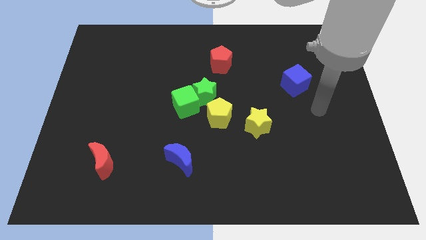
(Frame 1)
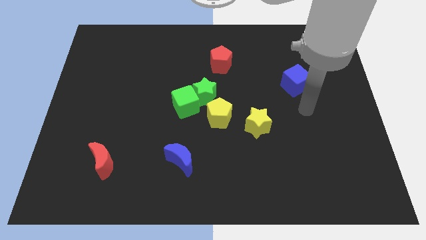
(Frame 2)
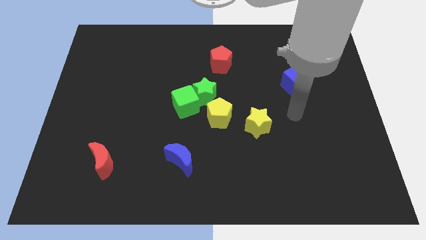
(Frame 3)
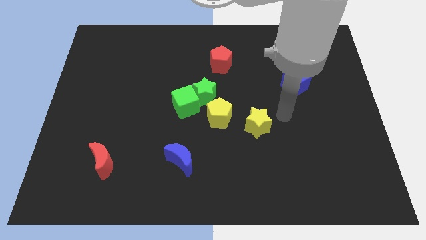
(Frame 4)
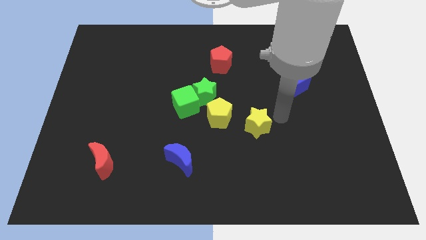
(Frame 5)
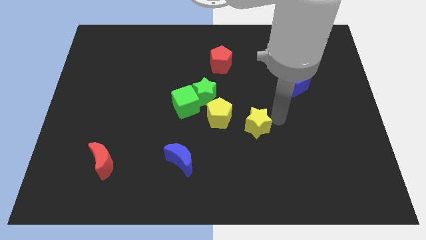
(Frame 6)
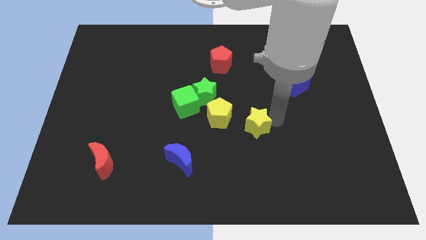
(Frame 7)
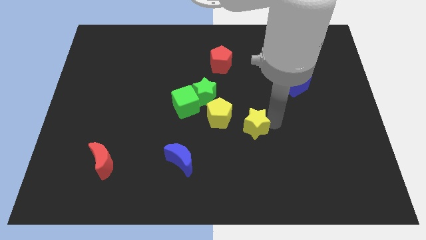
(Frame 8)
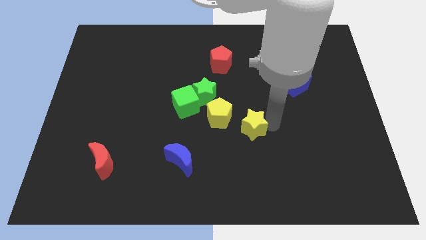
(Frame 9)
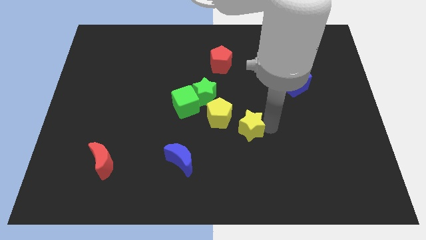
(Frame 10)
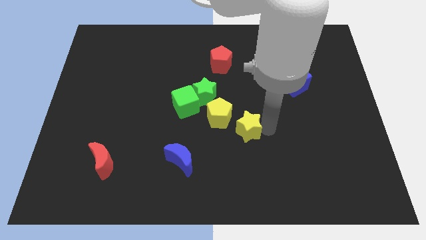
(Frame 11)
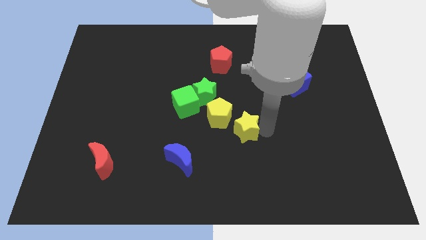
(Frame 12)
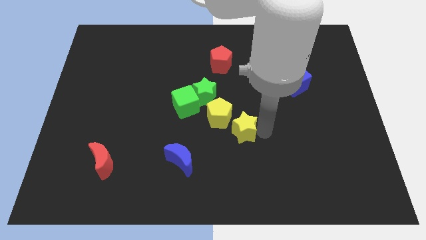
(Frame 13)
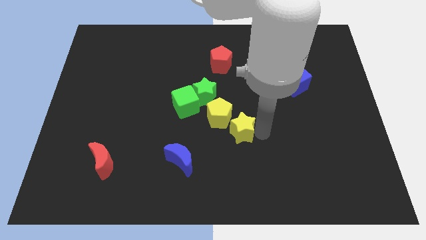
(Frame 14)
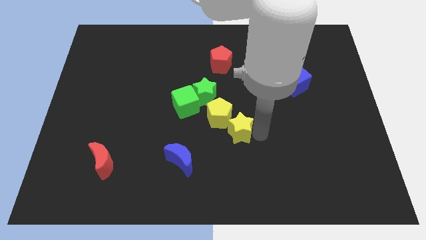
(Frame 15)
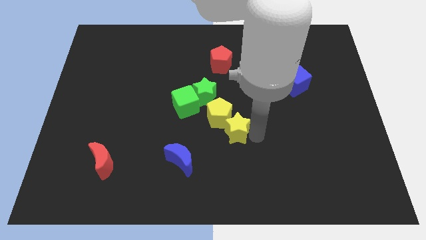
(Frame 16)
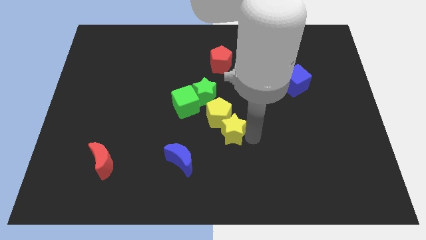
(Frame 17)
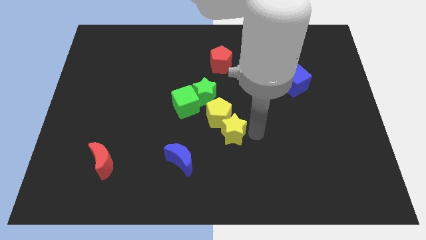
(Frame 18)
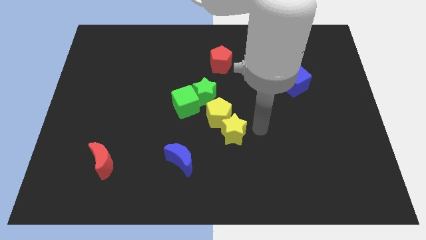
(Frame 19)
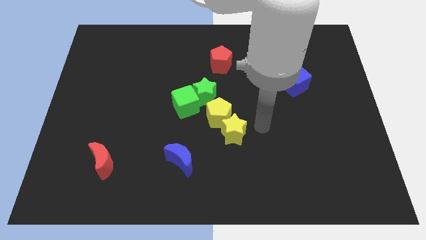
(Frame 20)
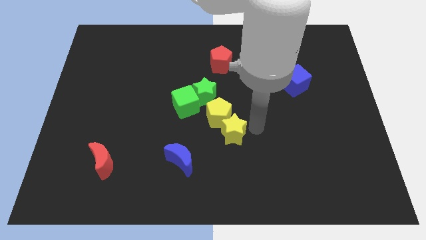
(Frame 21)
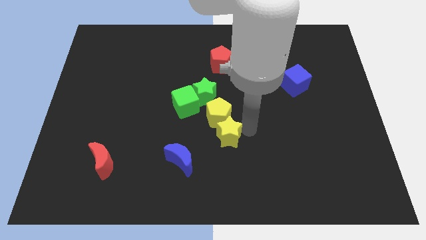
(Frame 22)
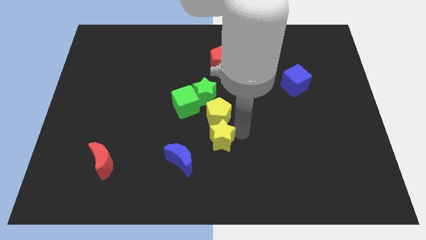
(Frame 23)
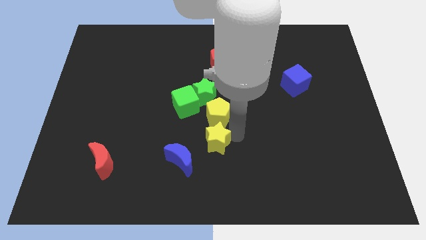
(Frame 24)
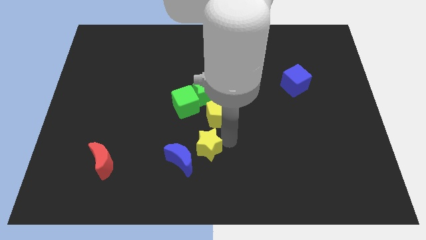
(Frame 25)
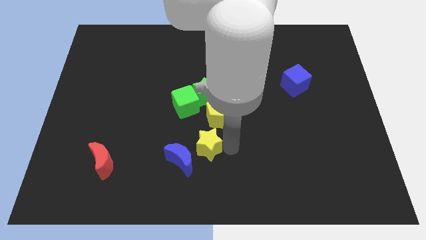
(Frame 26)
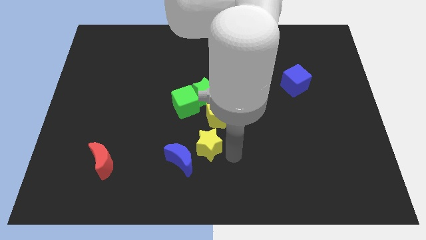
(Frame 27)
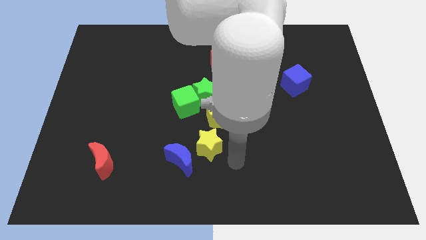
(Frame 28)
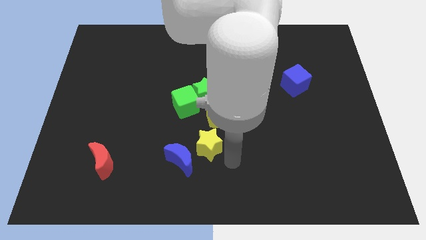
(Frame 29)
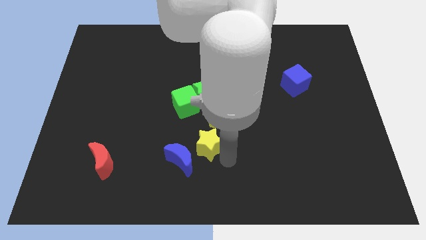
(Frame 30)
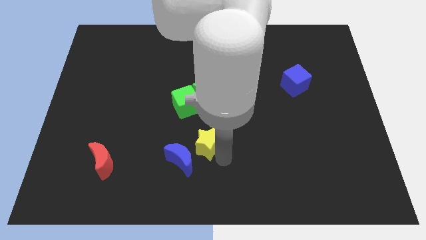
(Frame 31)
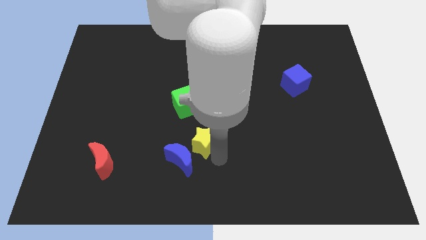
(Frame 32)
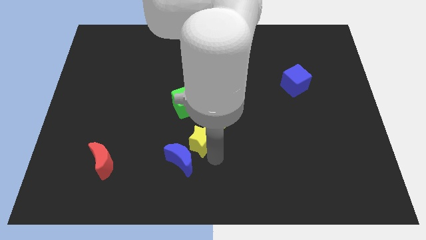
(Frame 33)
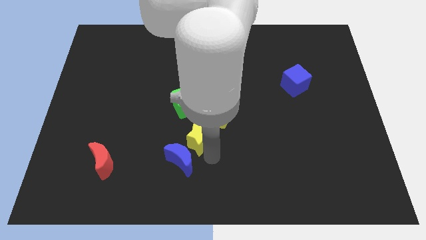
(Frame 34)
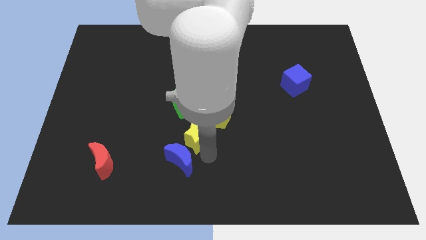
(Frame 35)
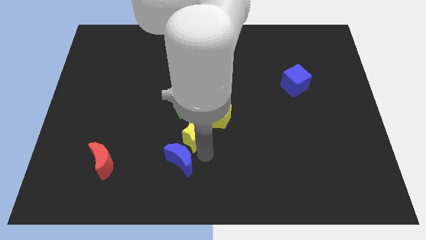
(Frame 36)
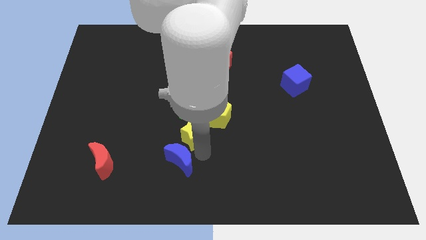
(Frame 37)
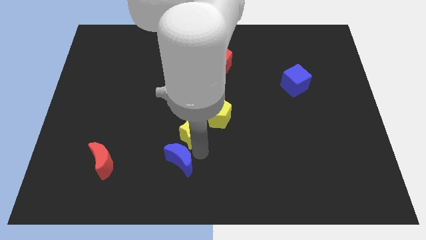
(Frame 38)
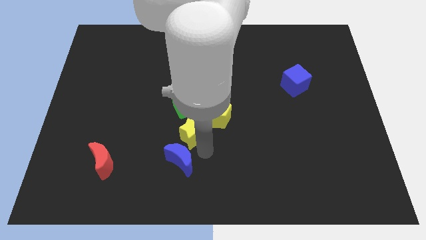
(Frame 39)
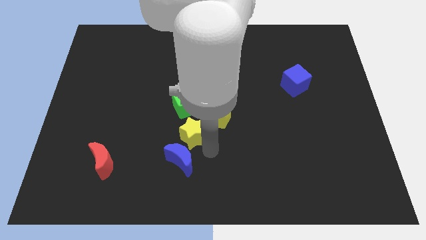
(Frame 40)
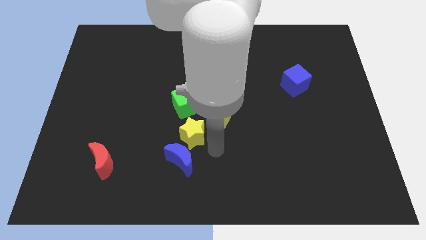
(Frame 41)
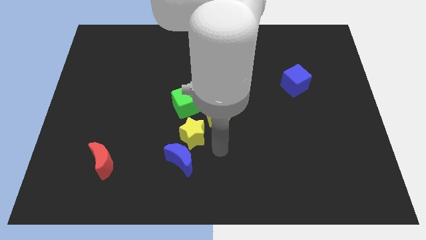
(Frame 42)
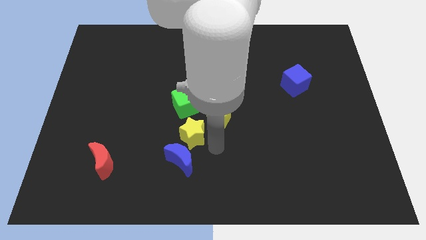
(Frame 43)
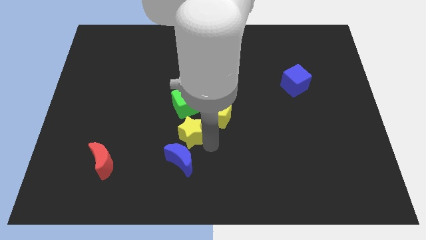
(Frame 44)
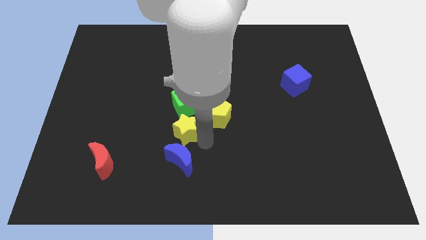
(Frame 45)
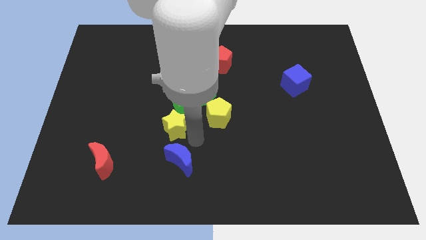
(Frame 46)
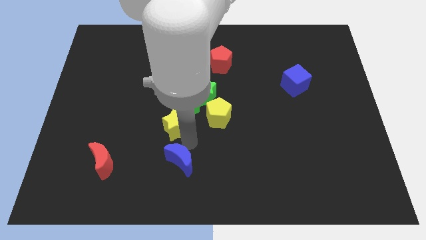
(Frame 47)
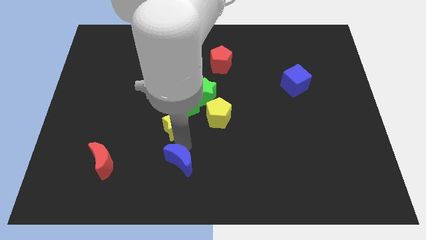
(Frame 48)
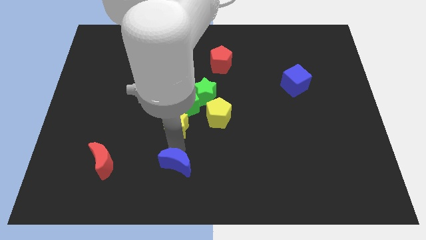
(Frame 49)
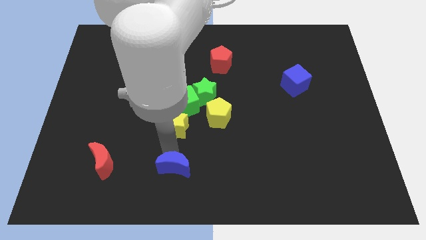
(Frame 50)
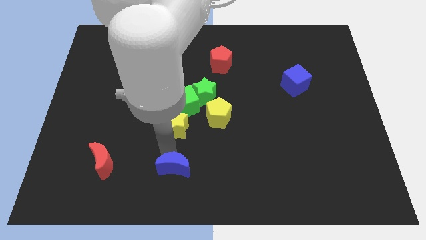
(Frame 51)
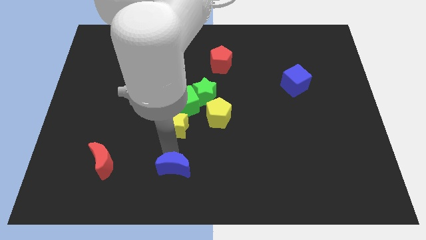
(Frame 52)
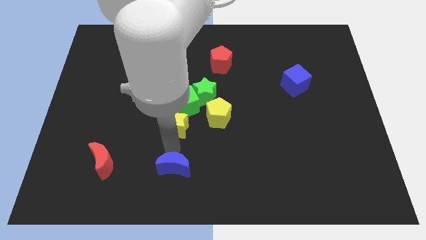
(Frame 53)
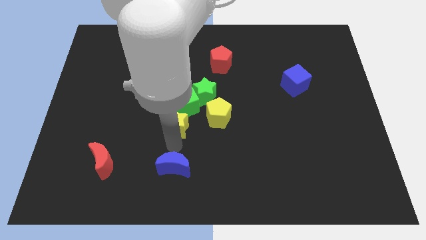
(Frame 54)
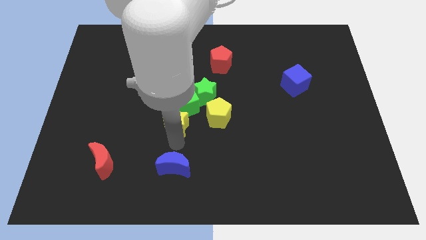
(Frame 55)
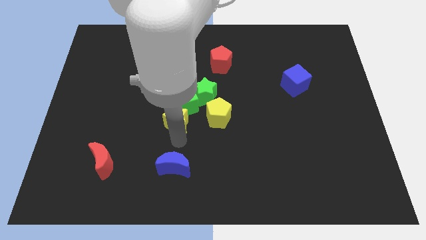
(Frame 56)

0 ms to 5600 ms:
move the yellow star towards the green cube

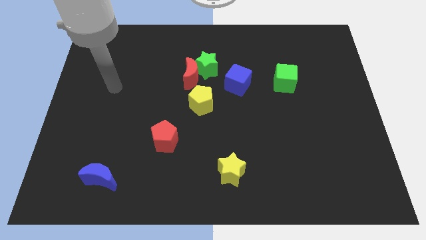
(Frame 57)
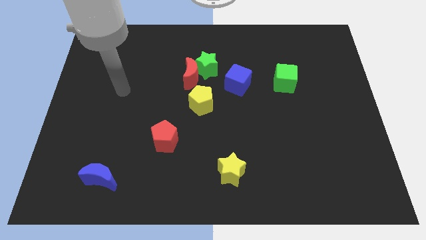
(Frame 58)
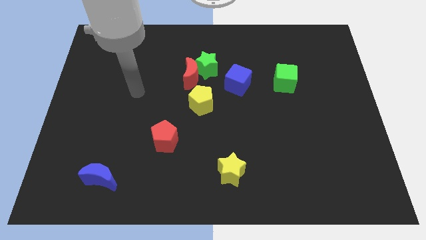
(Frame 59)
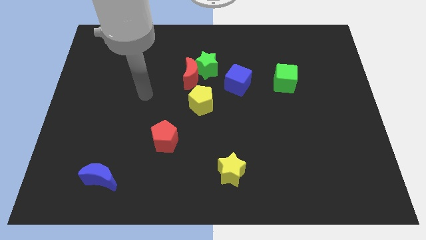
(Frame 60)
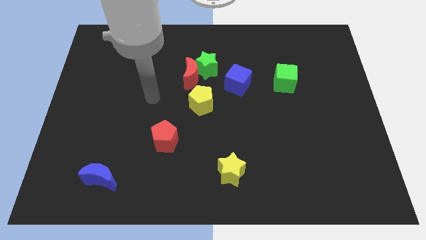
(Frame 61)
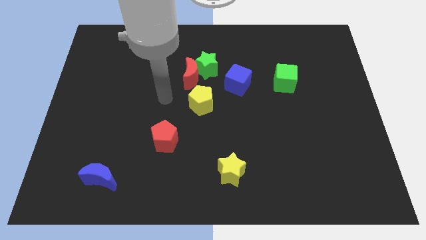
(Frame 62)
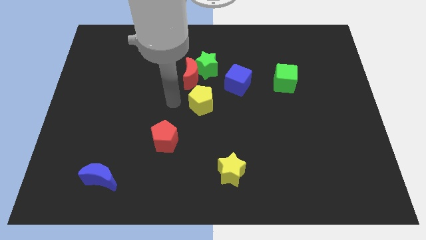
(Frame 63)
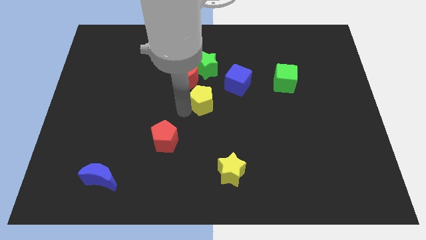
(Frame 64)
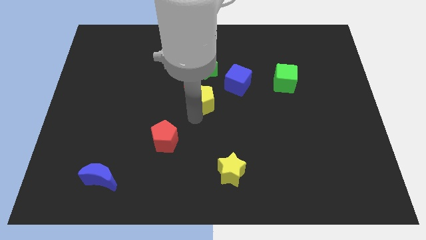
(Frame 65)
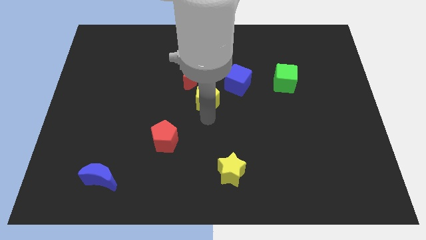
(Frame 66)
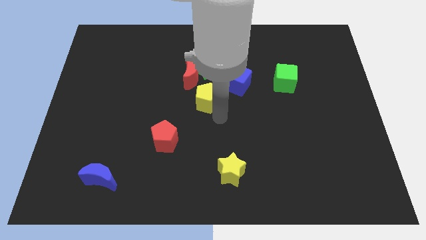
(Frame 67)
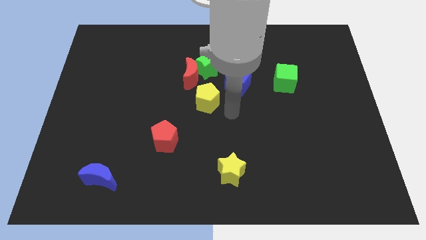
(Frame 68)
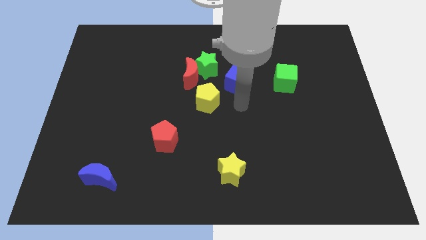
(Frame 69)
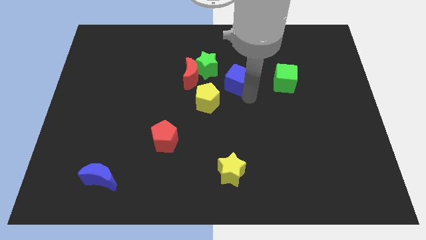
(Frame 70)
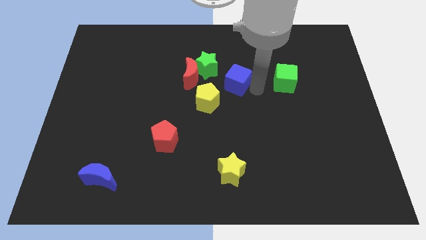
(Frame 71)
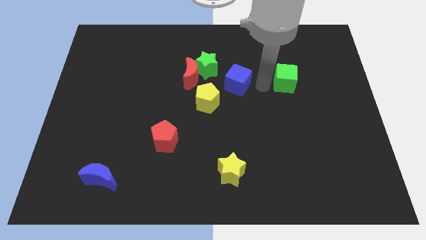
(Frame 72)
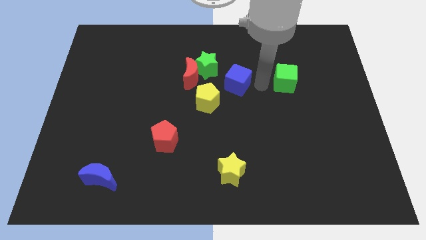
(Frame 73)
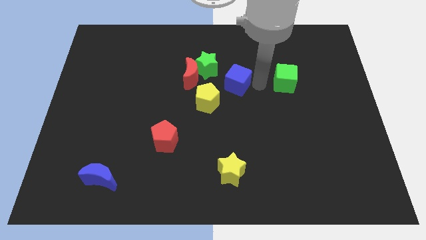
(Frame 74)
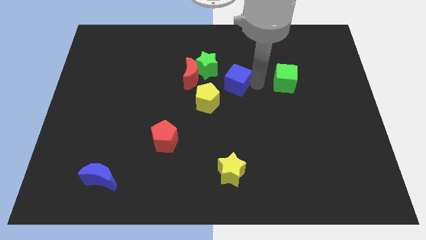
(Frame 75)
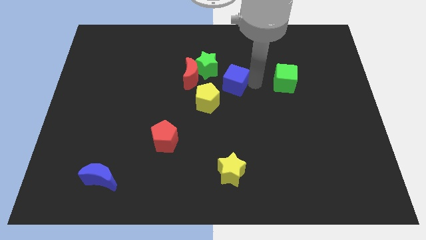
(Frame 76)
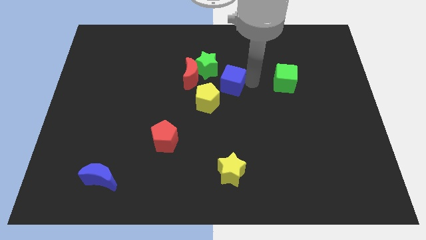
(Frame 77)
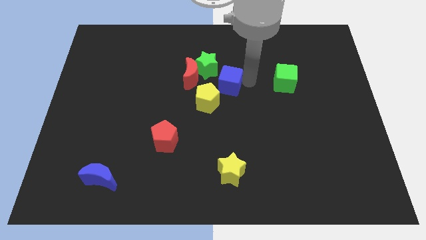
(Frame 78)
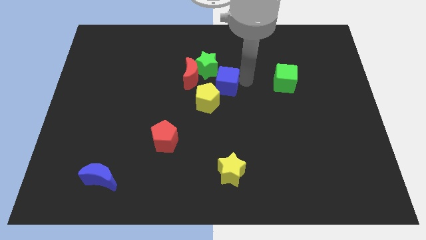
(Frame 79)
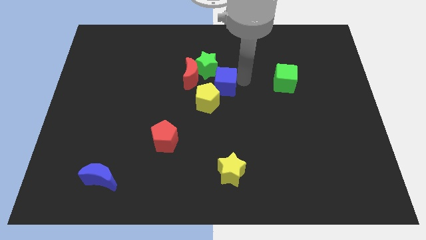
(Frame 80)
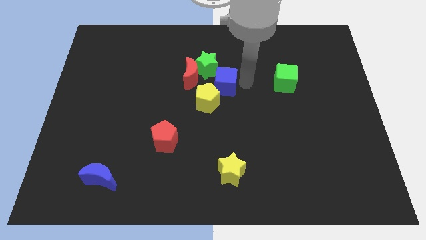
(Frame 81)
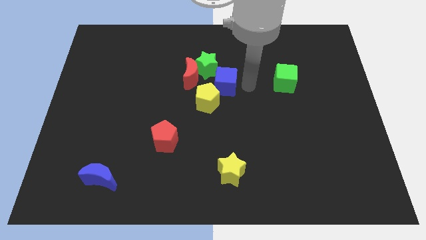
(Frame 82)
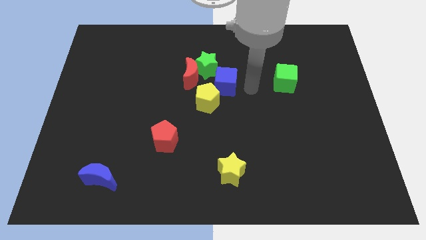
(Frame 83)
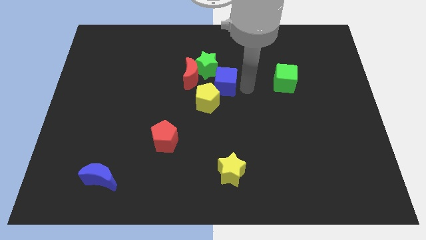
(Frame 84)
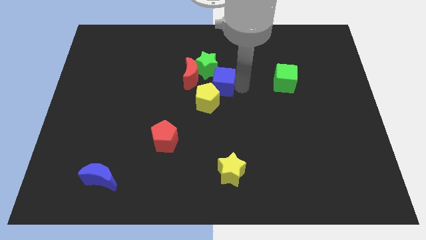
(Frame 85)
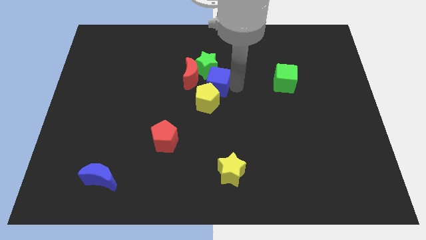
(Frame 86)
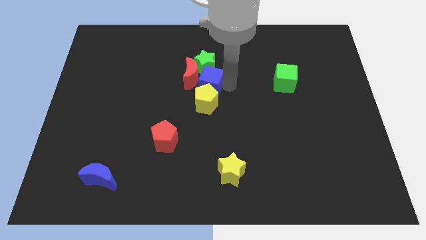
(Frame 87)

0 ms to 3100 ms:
move the blue cube close to the red moon
